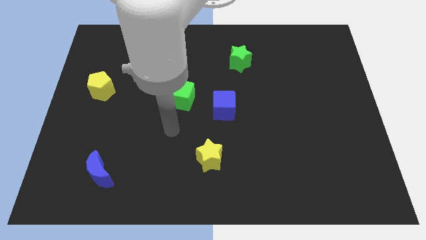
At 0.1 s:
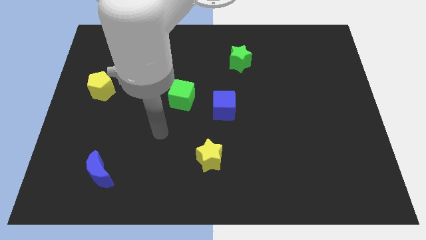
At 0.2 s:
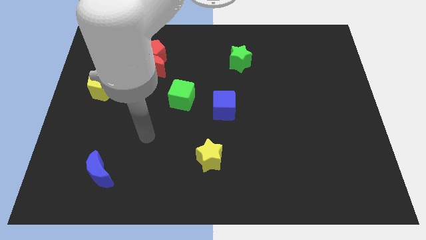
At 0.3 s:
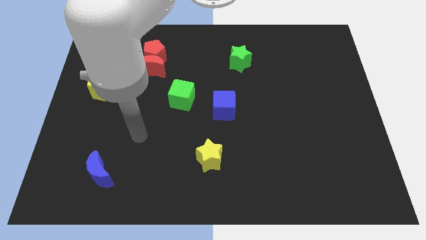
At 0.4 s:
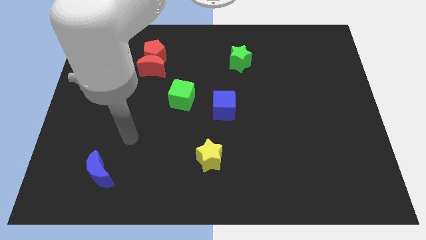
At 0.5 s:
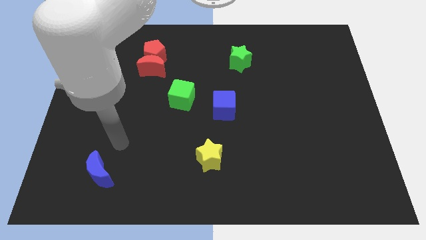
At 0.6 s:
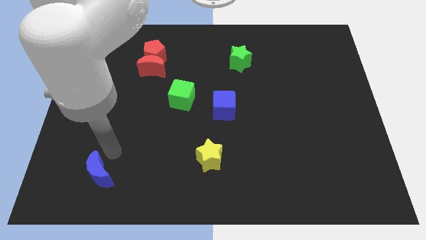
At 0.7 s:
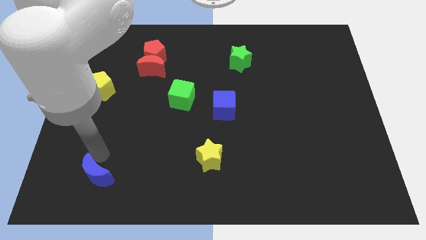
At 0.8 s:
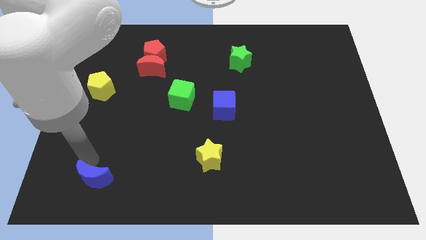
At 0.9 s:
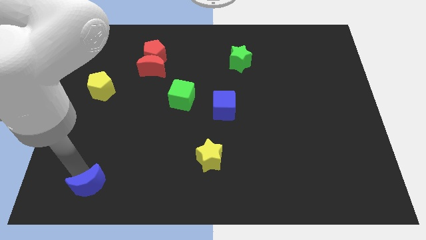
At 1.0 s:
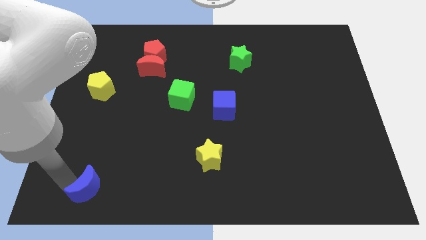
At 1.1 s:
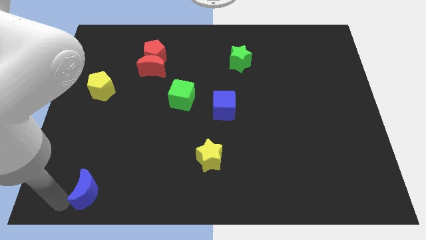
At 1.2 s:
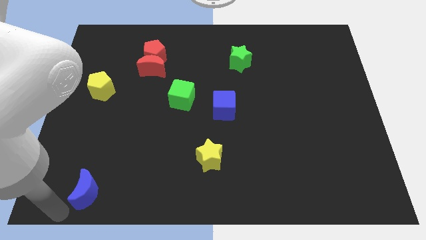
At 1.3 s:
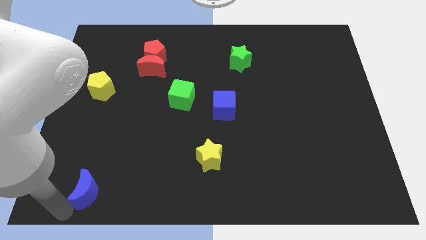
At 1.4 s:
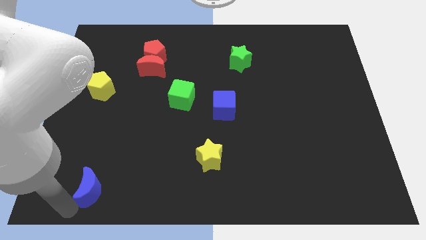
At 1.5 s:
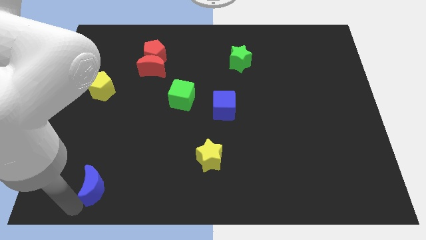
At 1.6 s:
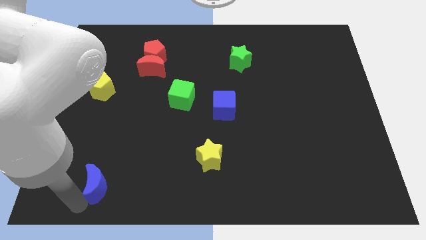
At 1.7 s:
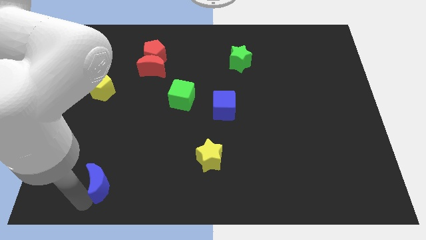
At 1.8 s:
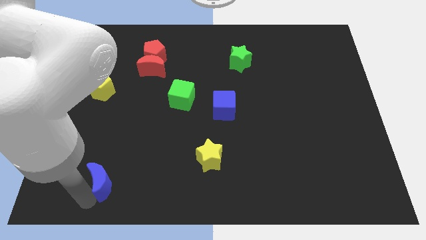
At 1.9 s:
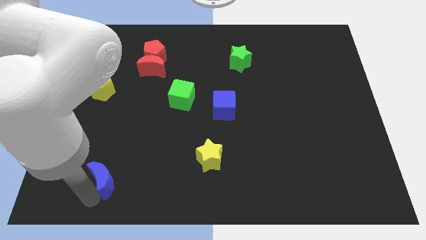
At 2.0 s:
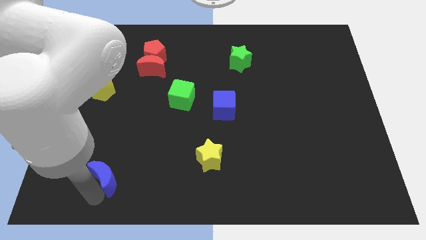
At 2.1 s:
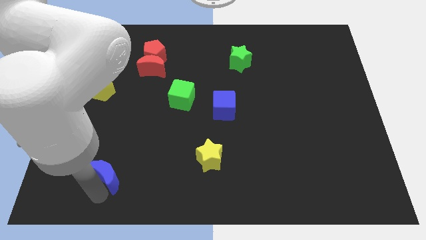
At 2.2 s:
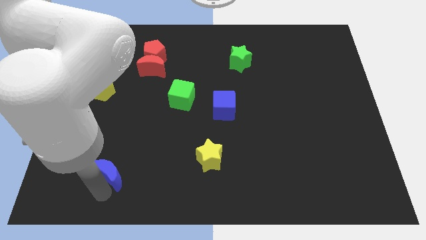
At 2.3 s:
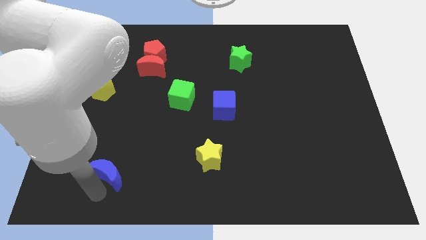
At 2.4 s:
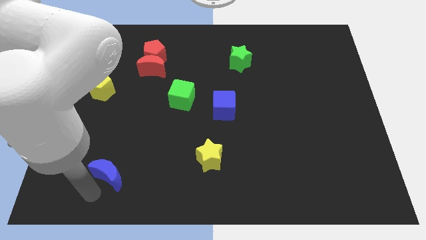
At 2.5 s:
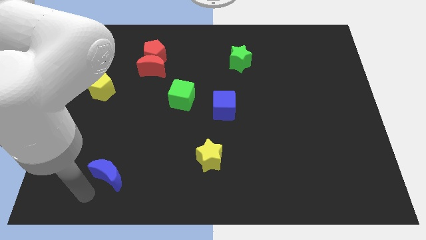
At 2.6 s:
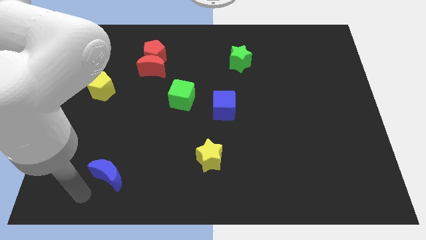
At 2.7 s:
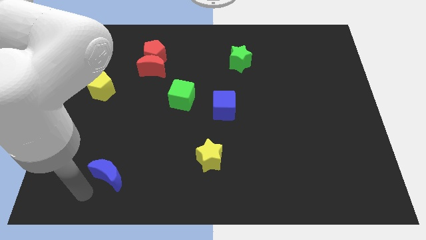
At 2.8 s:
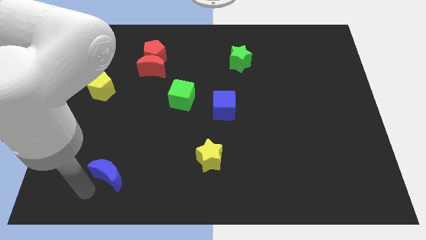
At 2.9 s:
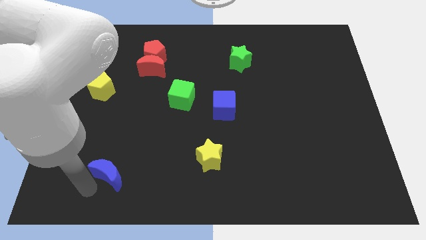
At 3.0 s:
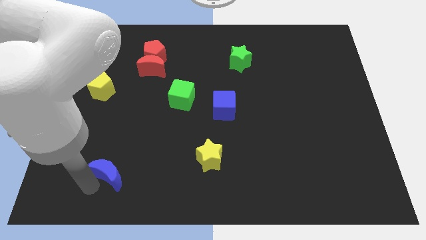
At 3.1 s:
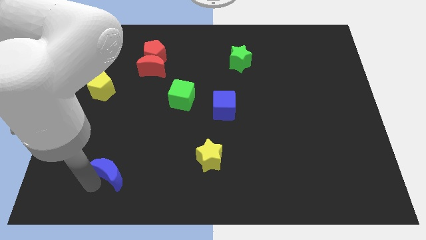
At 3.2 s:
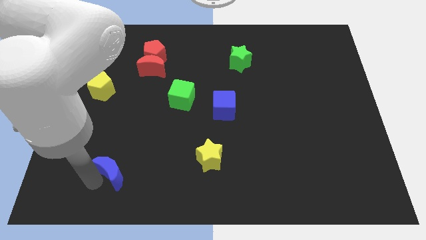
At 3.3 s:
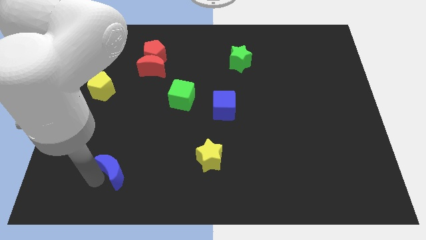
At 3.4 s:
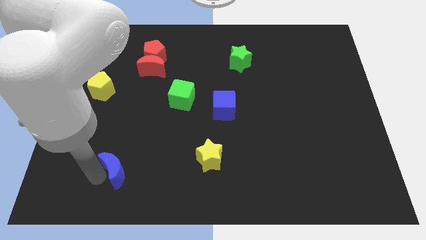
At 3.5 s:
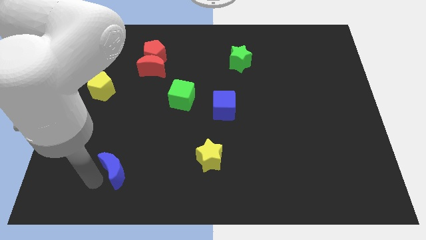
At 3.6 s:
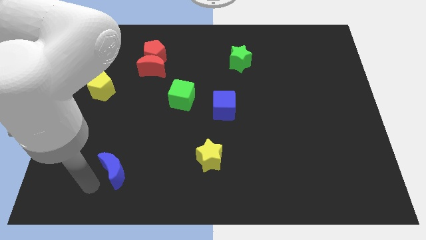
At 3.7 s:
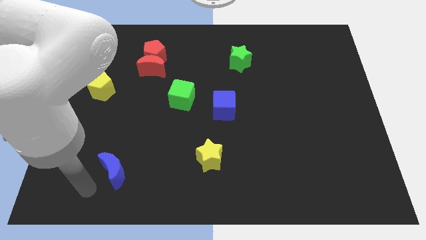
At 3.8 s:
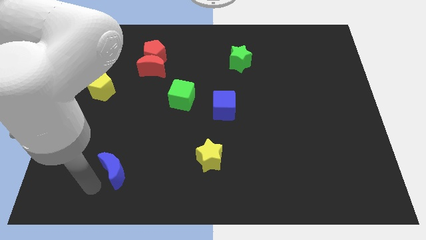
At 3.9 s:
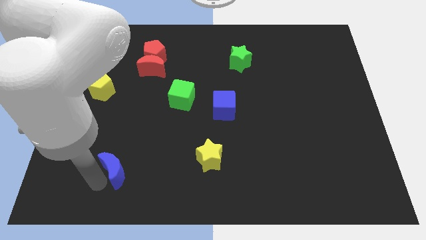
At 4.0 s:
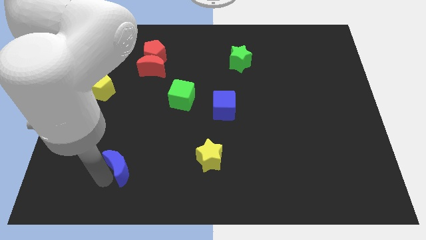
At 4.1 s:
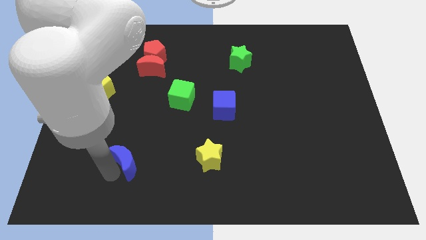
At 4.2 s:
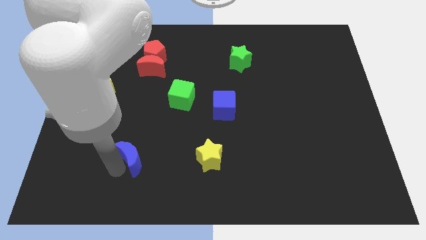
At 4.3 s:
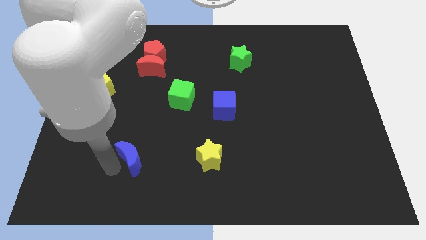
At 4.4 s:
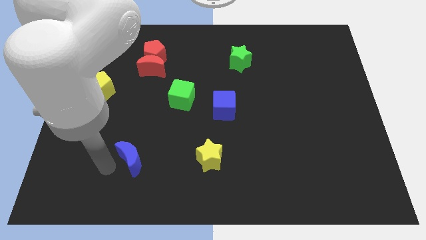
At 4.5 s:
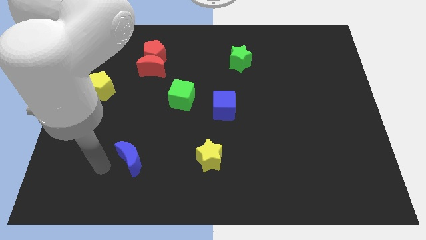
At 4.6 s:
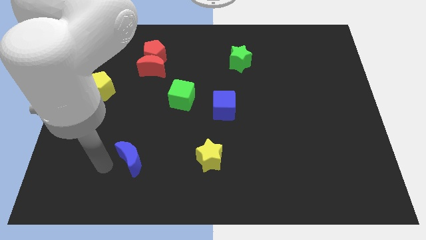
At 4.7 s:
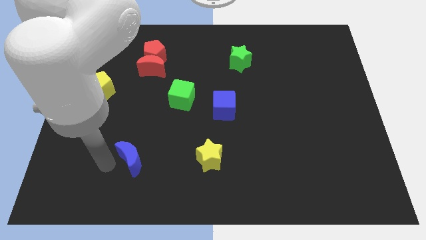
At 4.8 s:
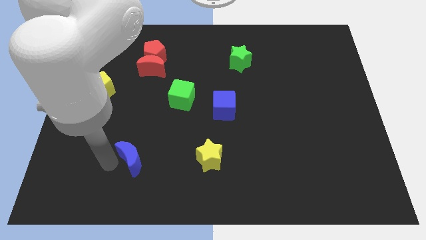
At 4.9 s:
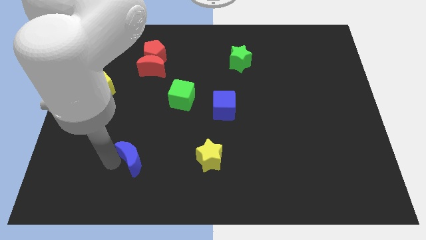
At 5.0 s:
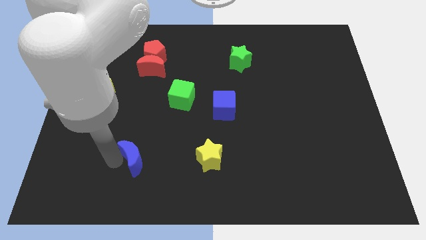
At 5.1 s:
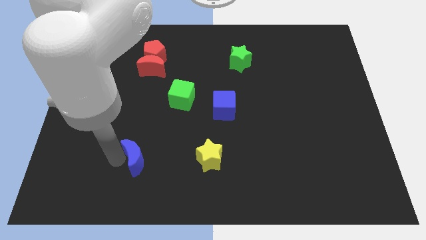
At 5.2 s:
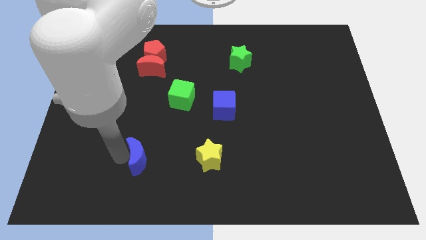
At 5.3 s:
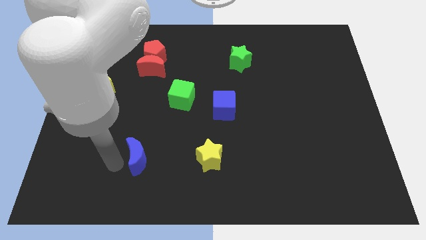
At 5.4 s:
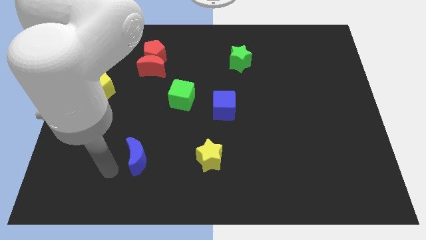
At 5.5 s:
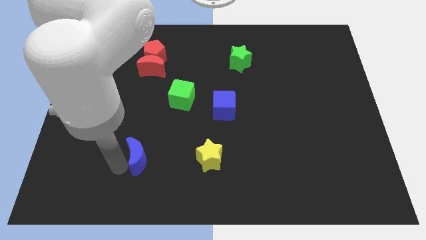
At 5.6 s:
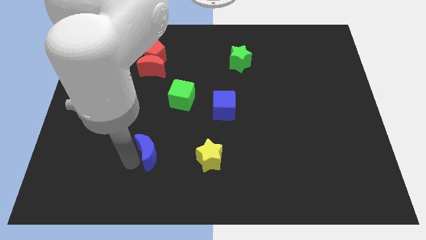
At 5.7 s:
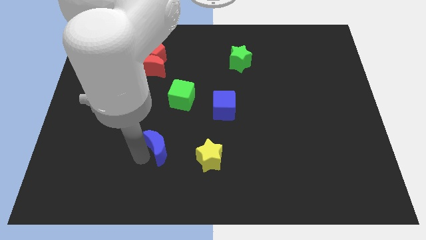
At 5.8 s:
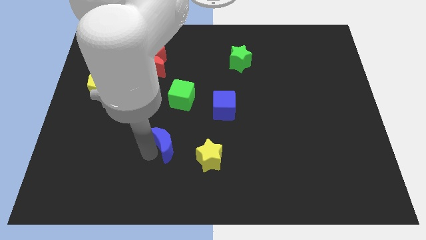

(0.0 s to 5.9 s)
put the blue moon to the top left side of the yellow star

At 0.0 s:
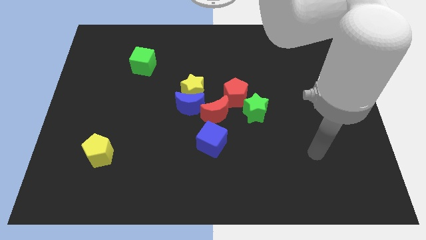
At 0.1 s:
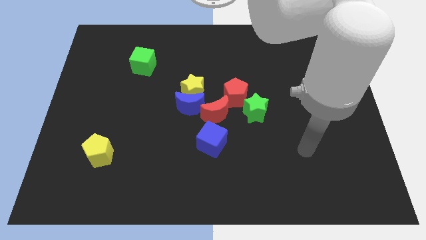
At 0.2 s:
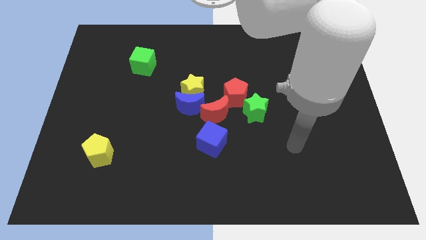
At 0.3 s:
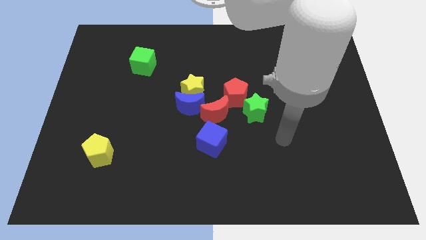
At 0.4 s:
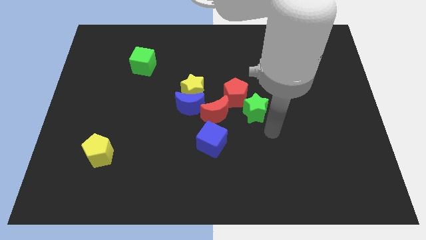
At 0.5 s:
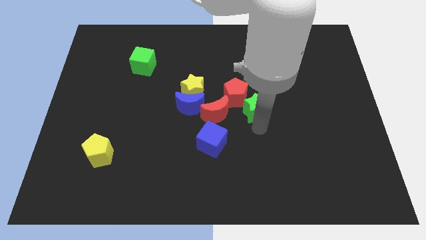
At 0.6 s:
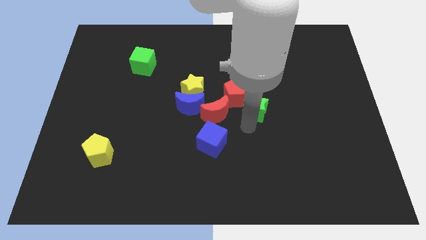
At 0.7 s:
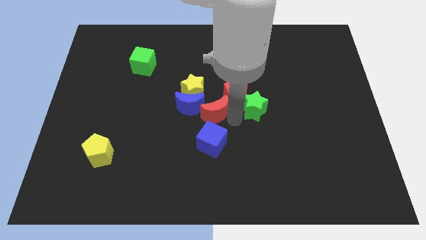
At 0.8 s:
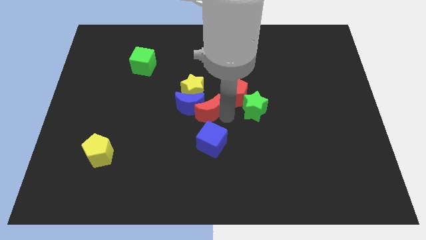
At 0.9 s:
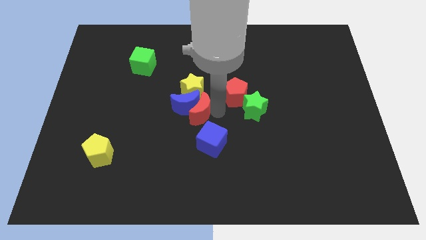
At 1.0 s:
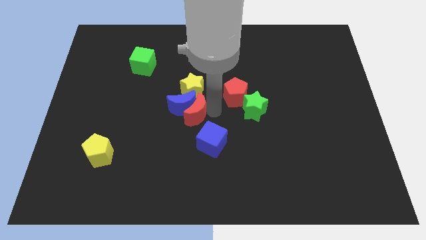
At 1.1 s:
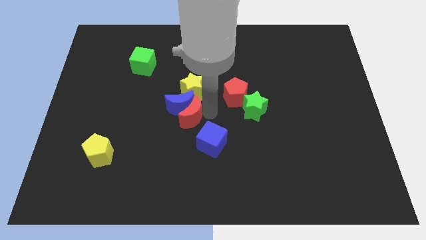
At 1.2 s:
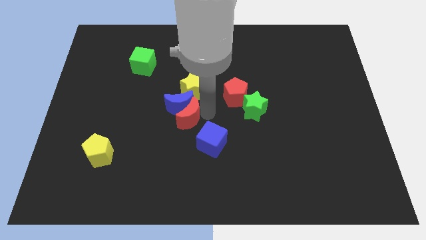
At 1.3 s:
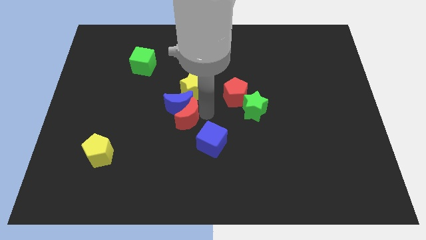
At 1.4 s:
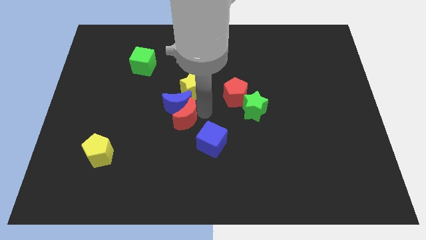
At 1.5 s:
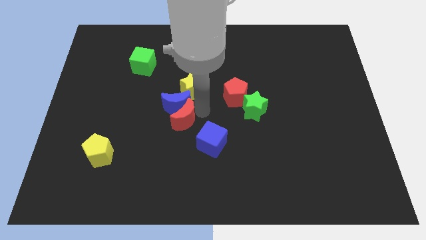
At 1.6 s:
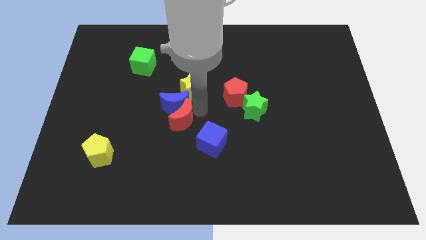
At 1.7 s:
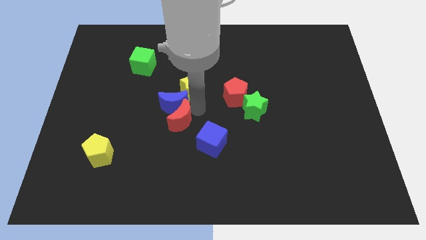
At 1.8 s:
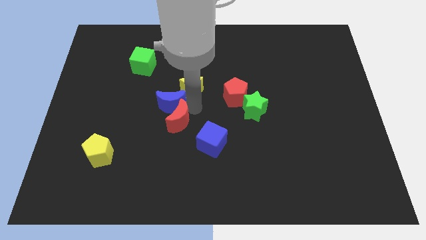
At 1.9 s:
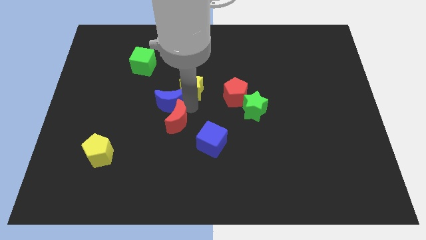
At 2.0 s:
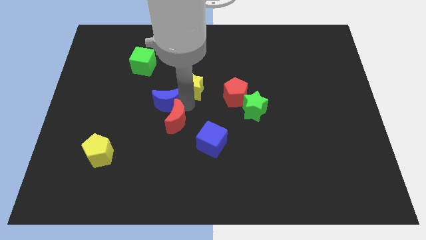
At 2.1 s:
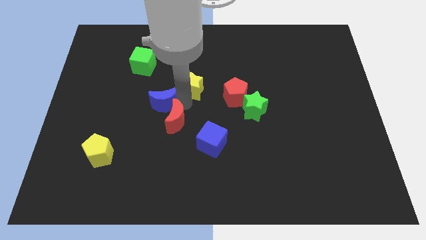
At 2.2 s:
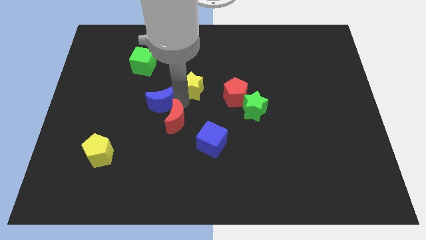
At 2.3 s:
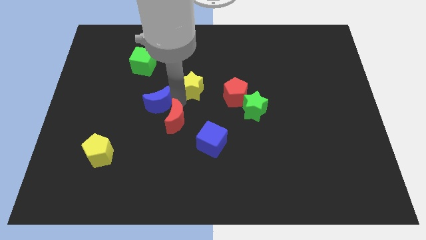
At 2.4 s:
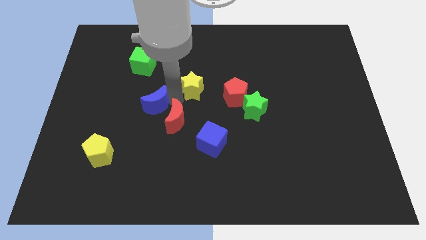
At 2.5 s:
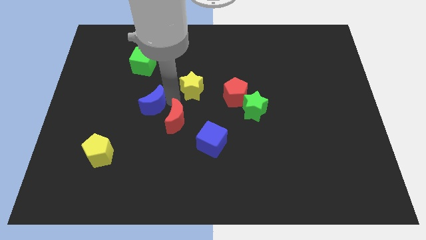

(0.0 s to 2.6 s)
push the blue moon below the green cube
